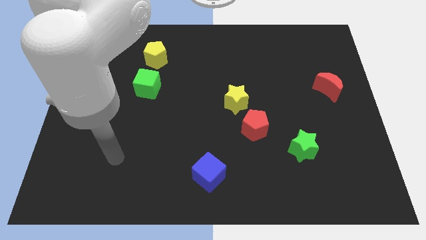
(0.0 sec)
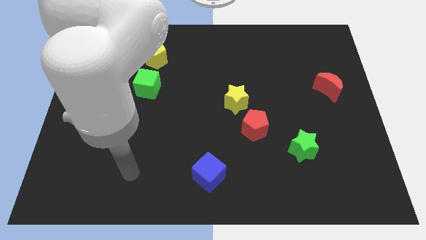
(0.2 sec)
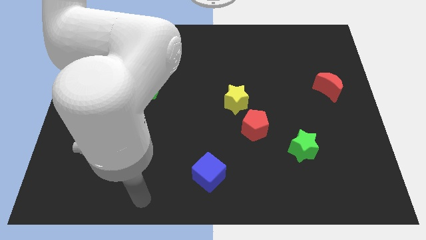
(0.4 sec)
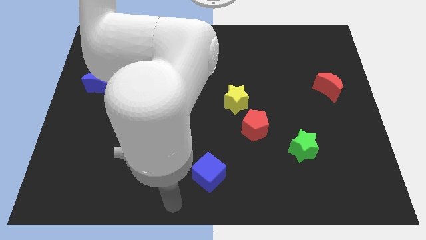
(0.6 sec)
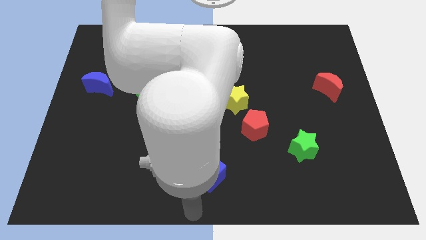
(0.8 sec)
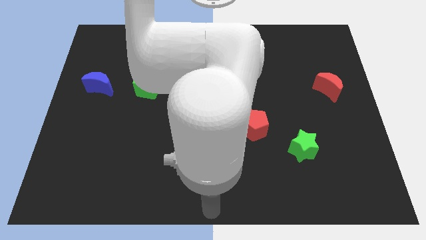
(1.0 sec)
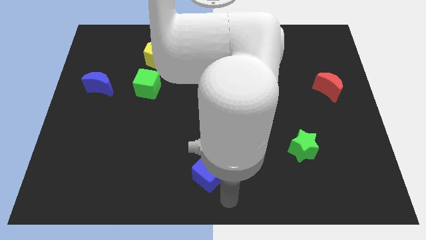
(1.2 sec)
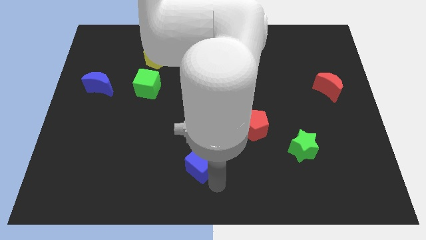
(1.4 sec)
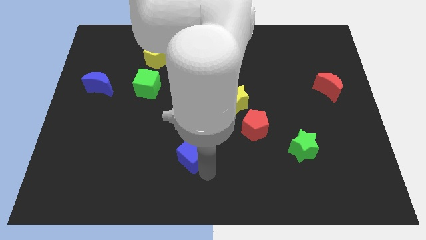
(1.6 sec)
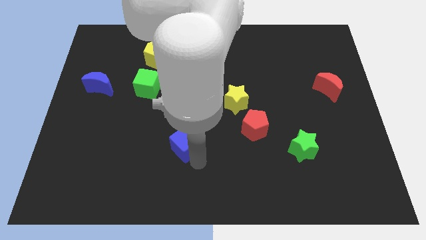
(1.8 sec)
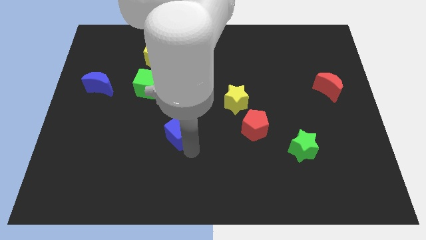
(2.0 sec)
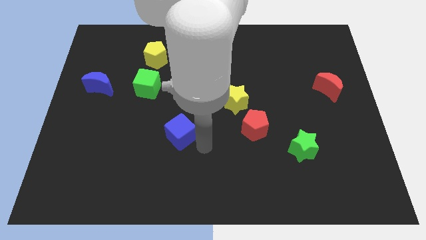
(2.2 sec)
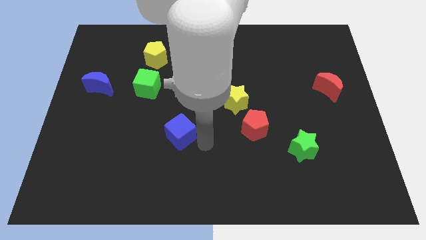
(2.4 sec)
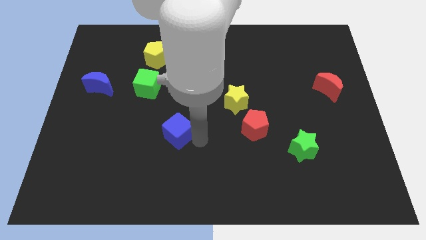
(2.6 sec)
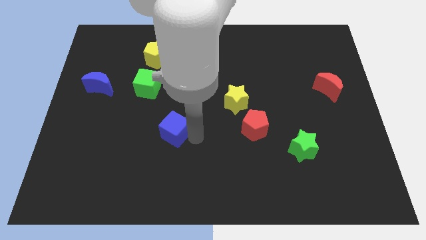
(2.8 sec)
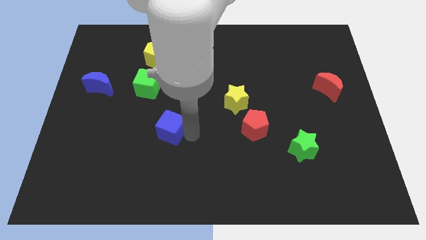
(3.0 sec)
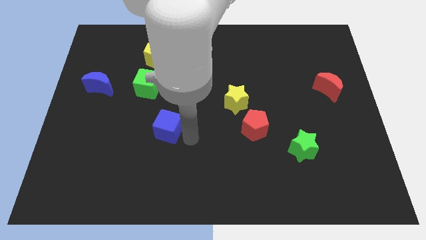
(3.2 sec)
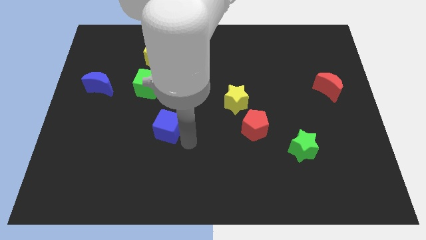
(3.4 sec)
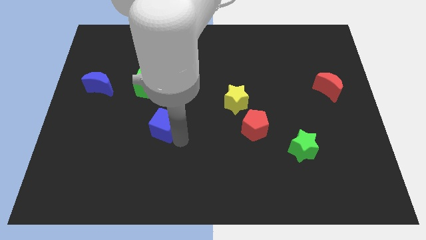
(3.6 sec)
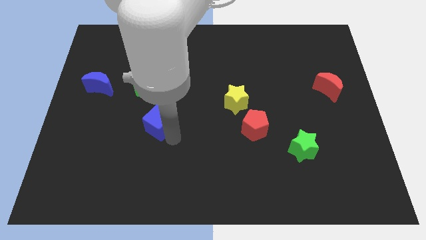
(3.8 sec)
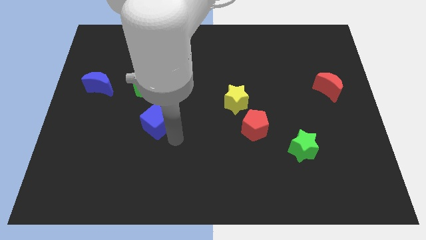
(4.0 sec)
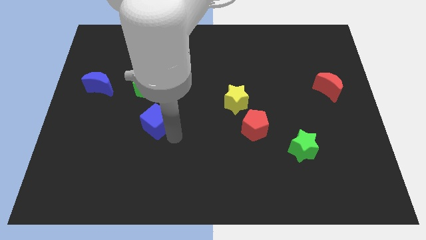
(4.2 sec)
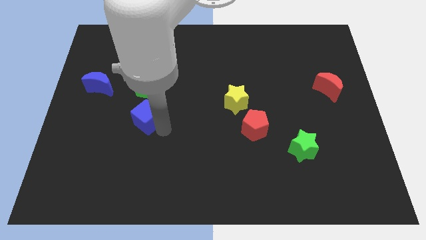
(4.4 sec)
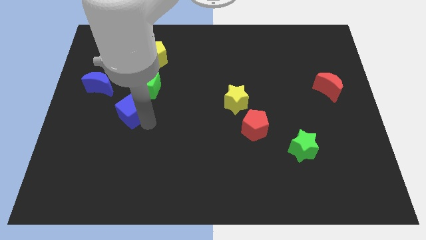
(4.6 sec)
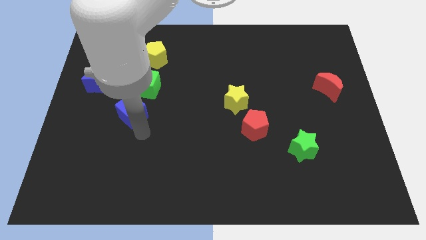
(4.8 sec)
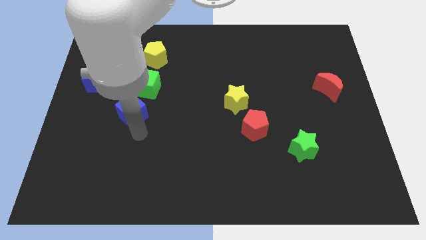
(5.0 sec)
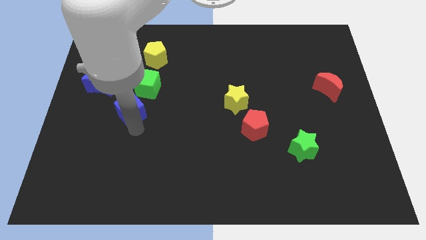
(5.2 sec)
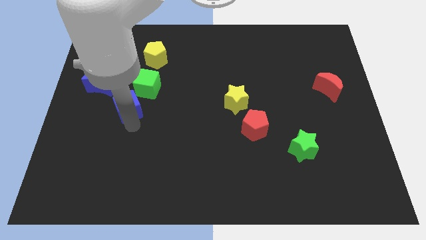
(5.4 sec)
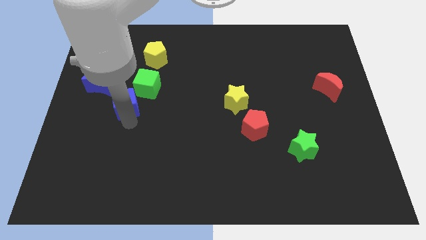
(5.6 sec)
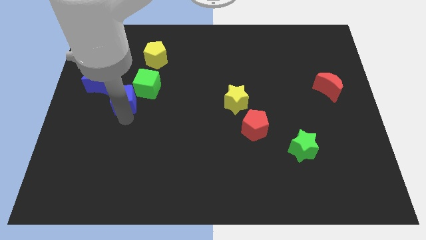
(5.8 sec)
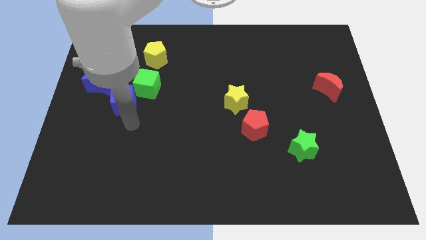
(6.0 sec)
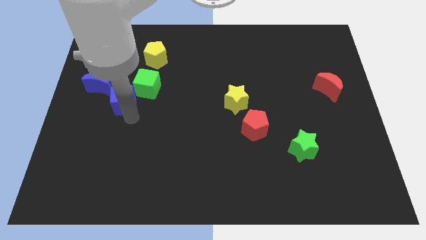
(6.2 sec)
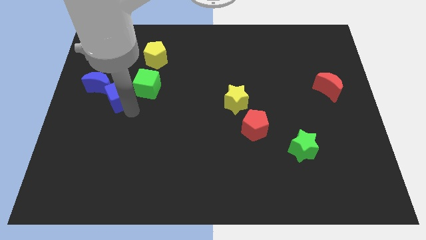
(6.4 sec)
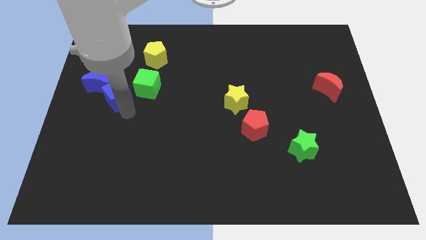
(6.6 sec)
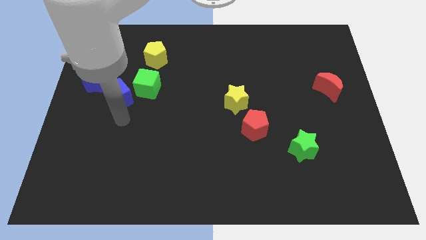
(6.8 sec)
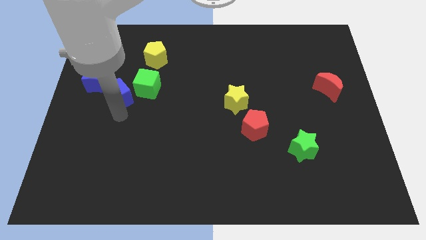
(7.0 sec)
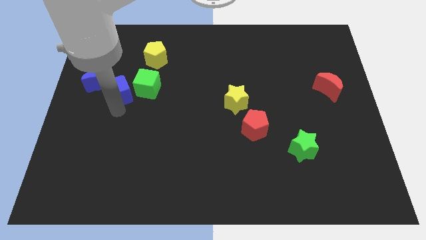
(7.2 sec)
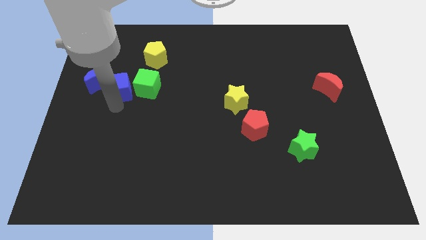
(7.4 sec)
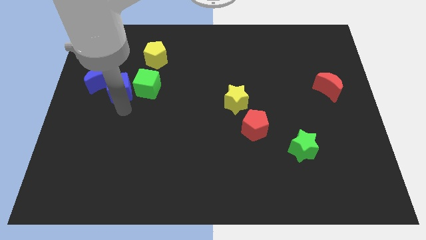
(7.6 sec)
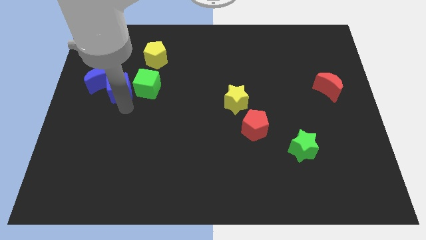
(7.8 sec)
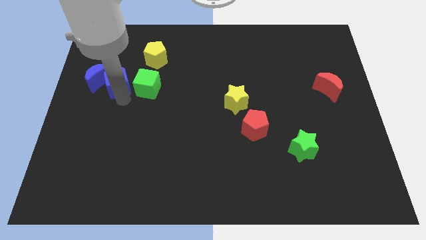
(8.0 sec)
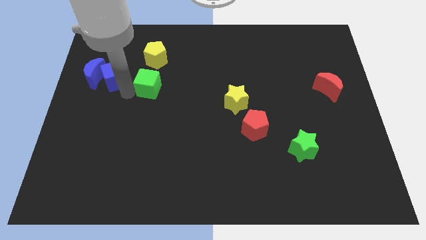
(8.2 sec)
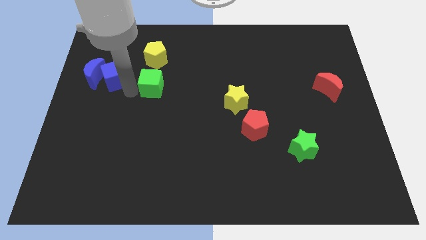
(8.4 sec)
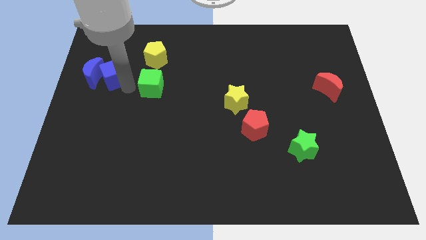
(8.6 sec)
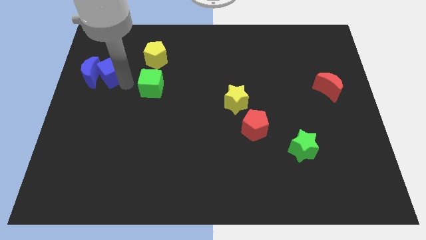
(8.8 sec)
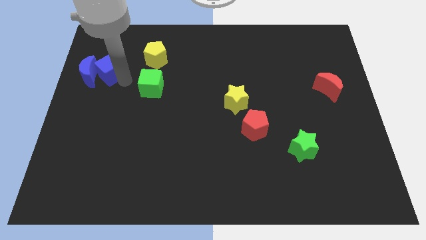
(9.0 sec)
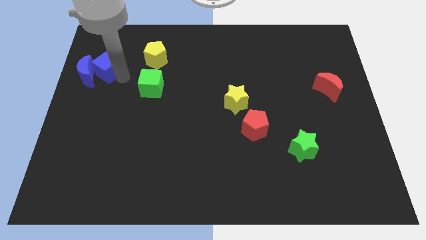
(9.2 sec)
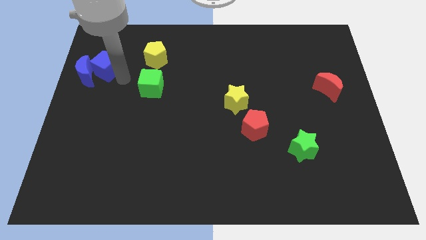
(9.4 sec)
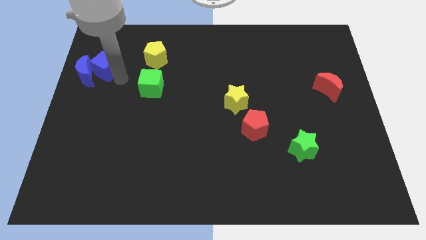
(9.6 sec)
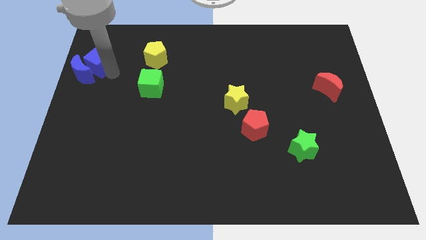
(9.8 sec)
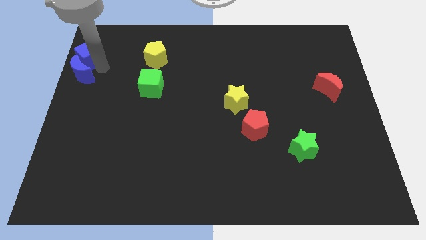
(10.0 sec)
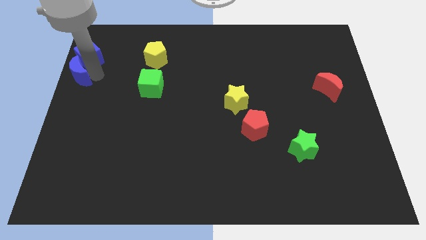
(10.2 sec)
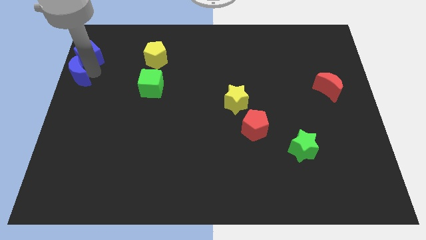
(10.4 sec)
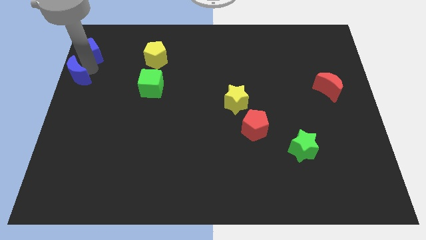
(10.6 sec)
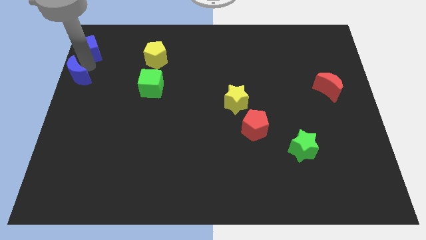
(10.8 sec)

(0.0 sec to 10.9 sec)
move the blue cube to the top left
